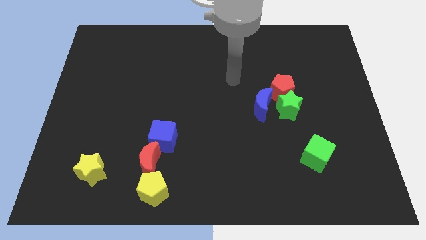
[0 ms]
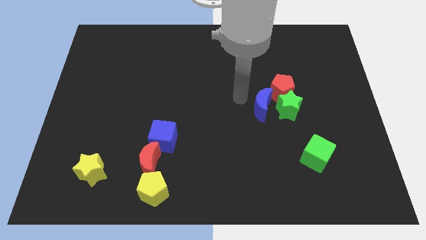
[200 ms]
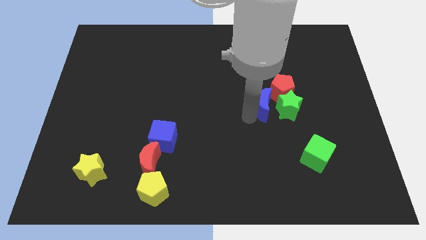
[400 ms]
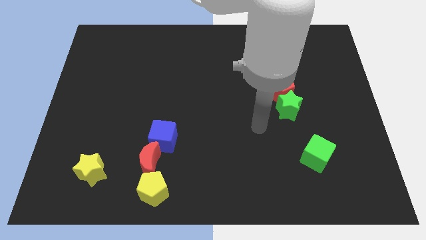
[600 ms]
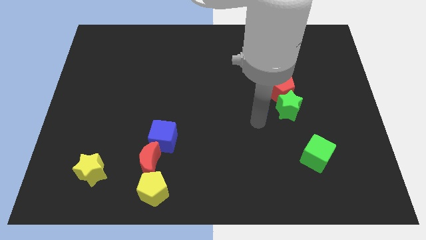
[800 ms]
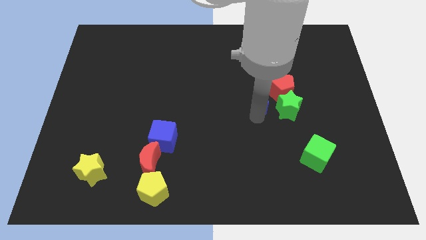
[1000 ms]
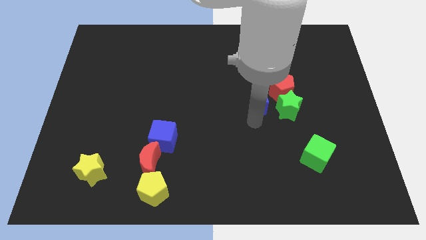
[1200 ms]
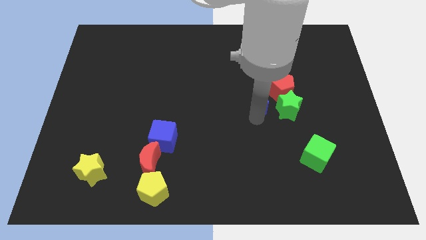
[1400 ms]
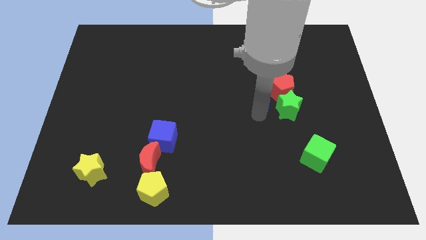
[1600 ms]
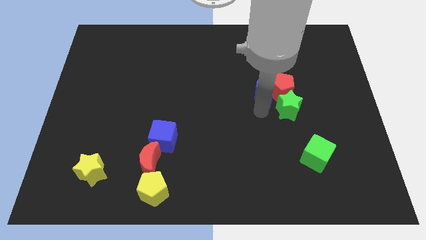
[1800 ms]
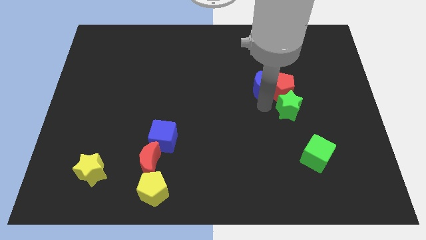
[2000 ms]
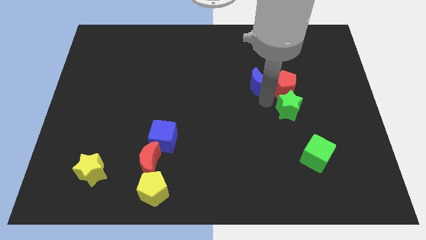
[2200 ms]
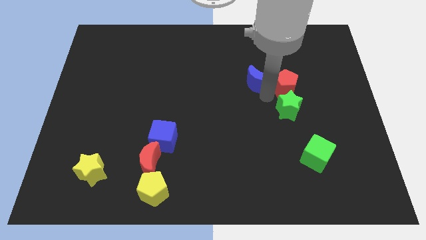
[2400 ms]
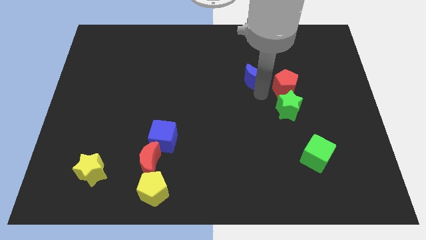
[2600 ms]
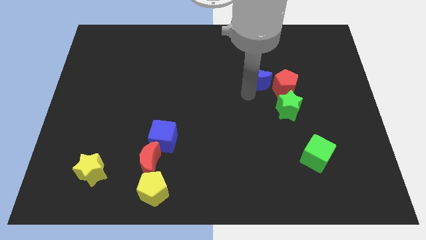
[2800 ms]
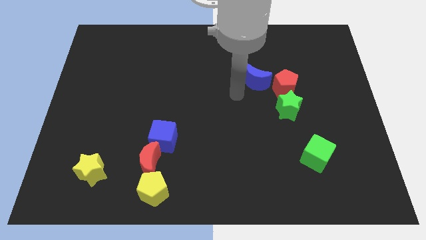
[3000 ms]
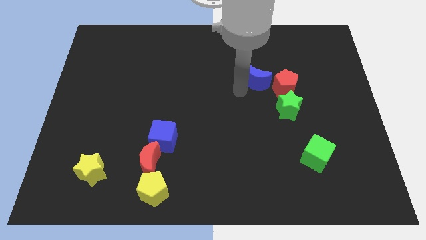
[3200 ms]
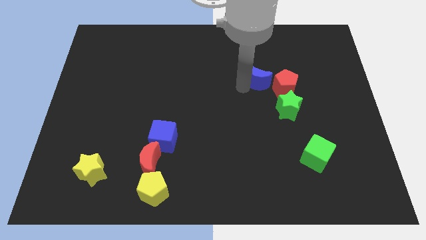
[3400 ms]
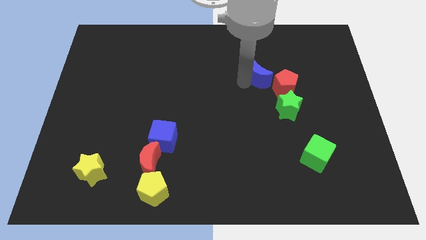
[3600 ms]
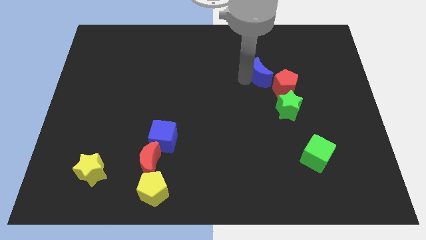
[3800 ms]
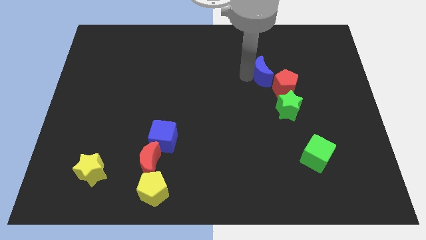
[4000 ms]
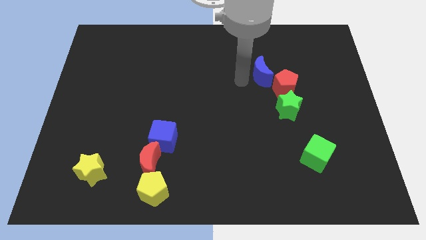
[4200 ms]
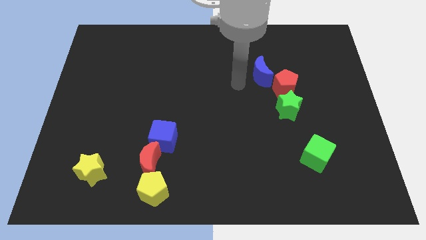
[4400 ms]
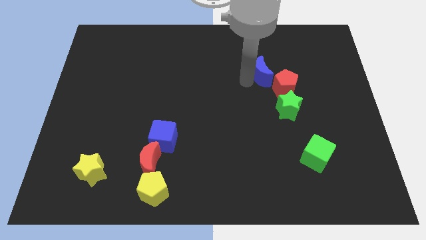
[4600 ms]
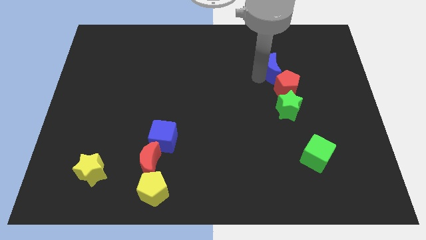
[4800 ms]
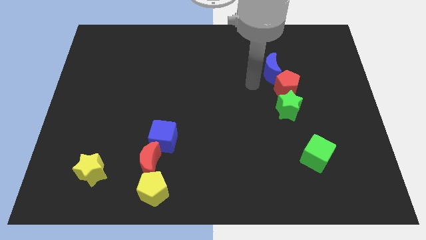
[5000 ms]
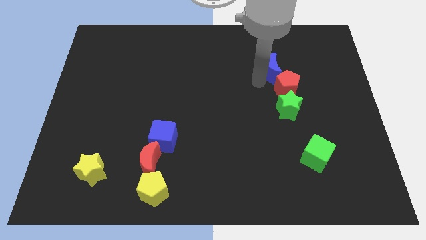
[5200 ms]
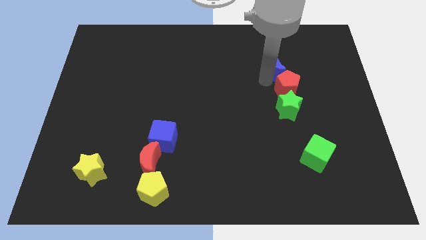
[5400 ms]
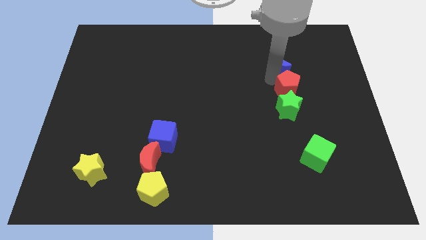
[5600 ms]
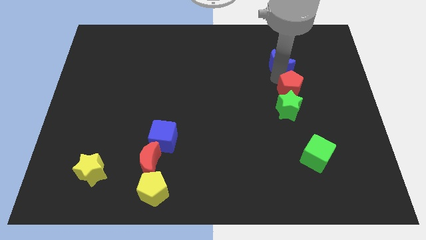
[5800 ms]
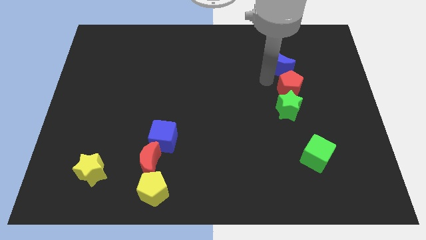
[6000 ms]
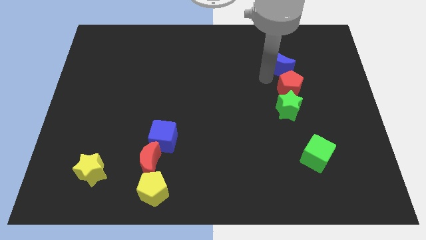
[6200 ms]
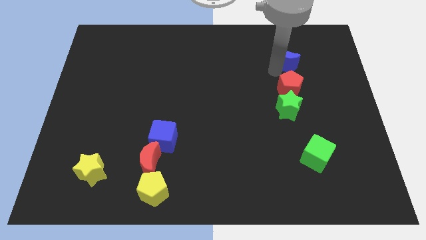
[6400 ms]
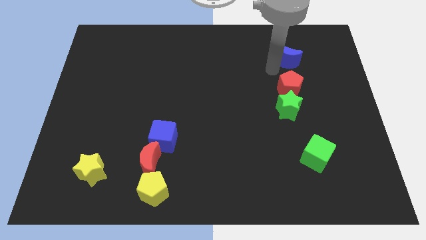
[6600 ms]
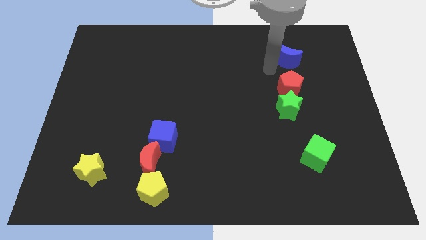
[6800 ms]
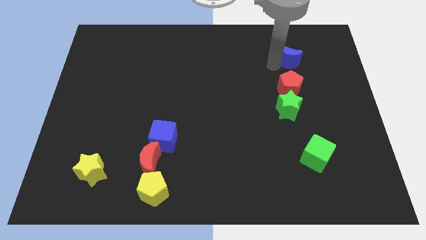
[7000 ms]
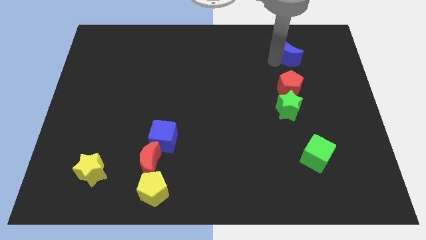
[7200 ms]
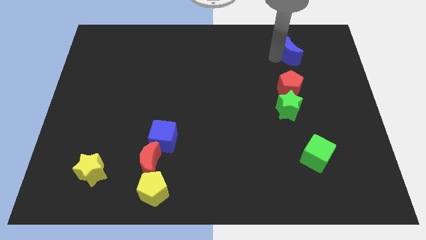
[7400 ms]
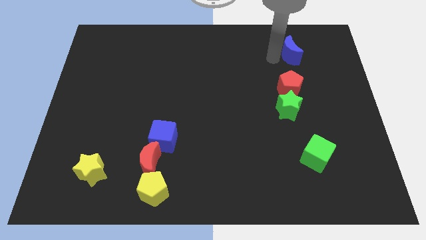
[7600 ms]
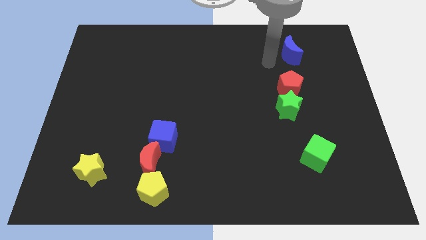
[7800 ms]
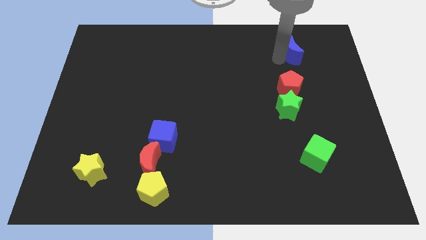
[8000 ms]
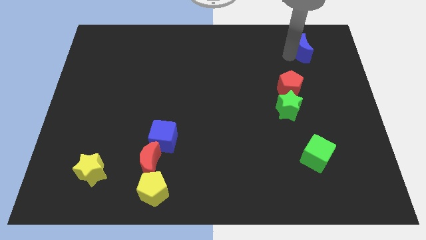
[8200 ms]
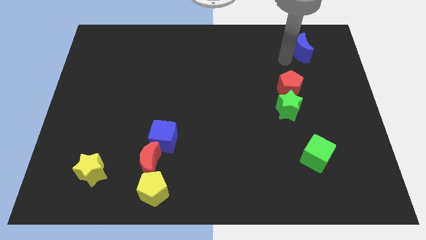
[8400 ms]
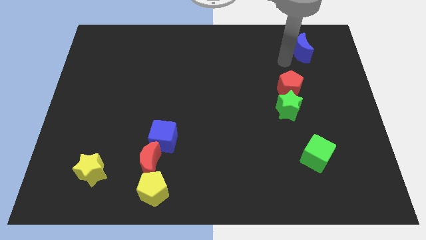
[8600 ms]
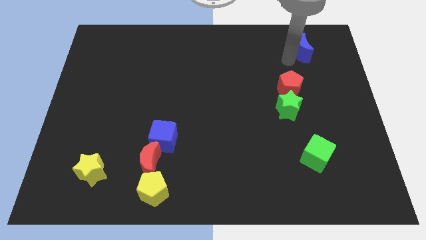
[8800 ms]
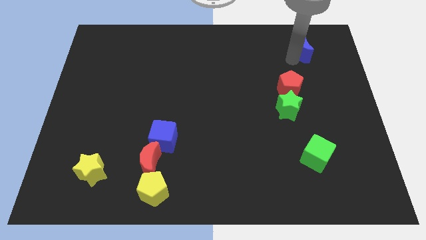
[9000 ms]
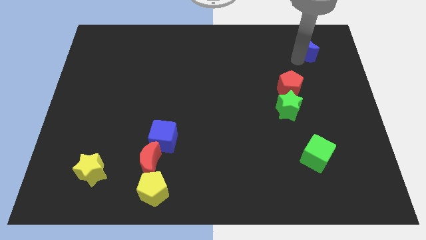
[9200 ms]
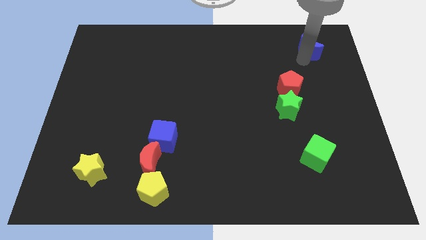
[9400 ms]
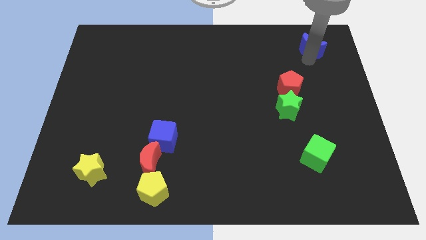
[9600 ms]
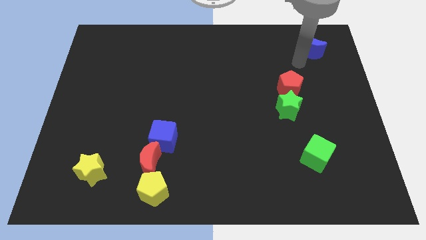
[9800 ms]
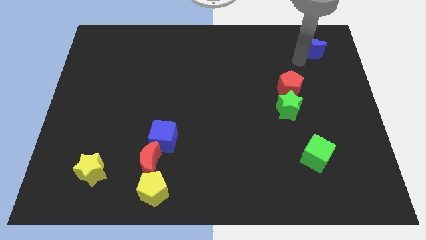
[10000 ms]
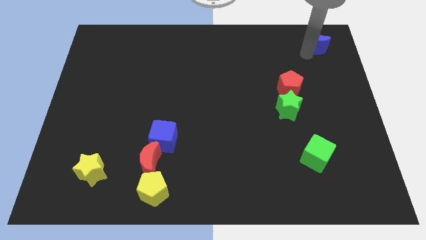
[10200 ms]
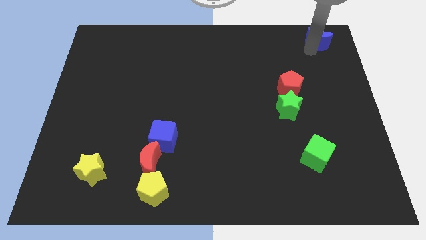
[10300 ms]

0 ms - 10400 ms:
move the blue moon to the top right of the board

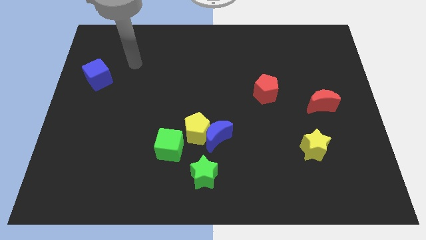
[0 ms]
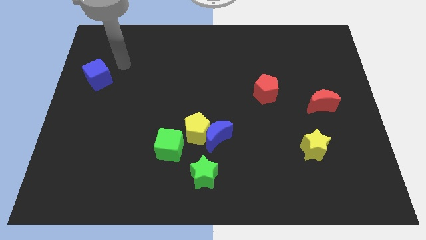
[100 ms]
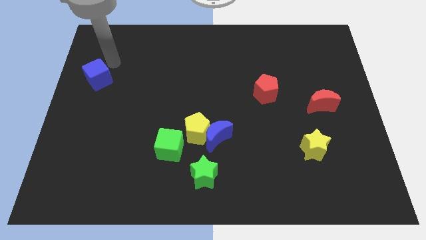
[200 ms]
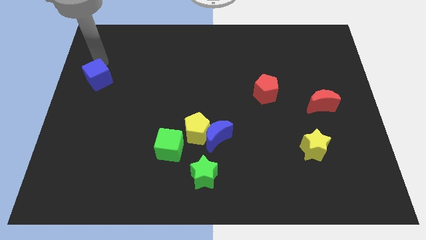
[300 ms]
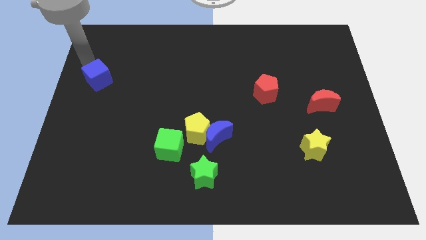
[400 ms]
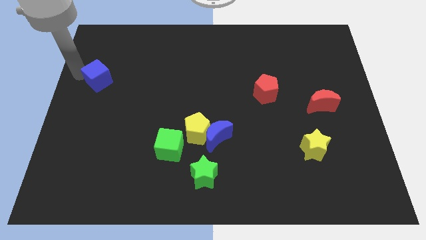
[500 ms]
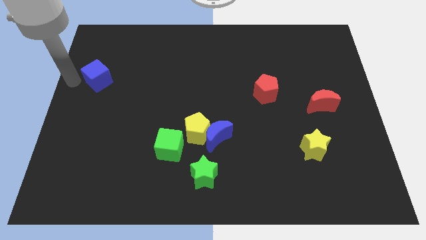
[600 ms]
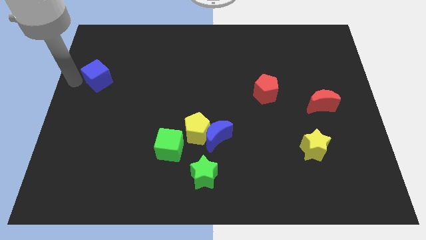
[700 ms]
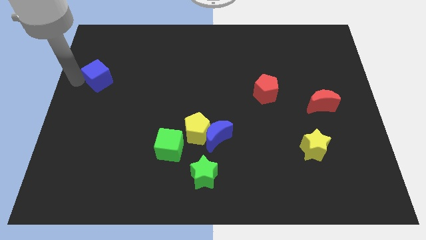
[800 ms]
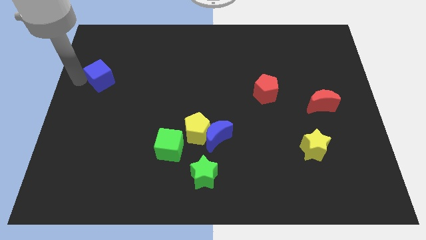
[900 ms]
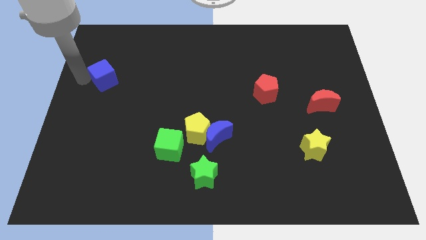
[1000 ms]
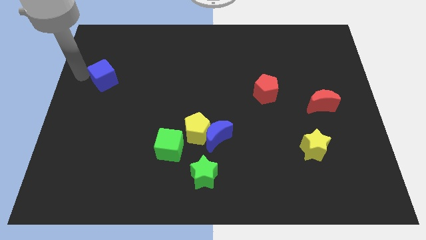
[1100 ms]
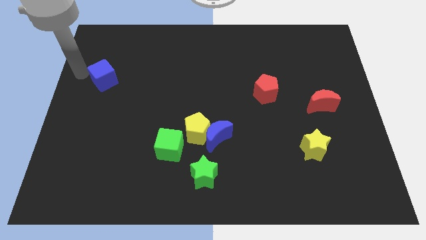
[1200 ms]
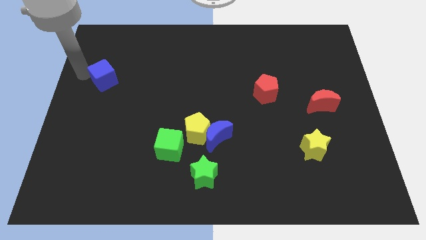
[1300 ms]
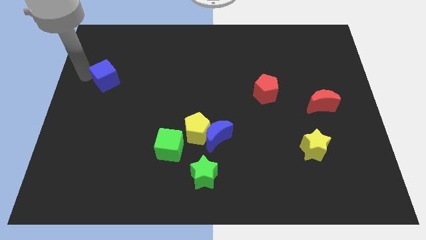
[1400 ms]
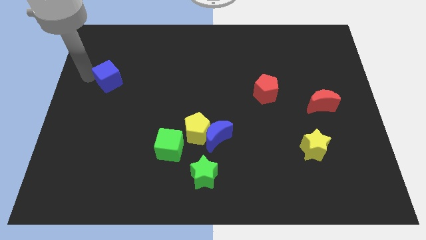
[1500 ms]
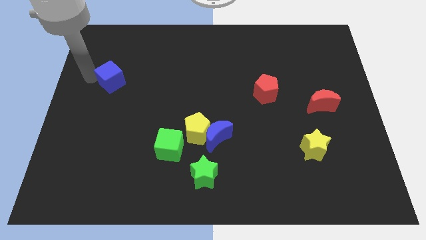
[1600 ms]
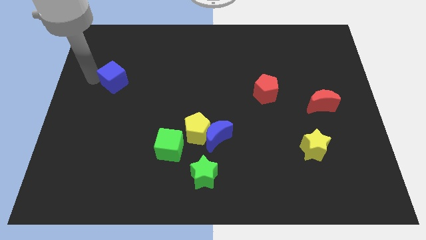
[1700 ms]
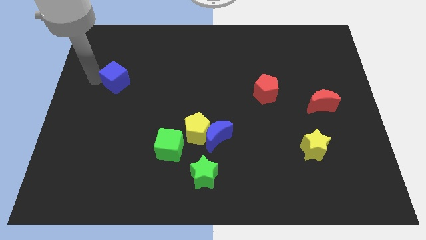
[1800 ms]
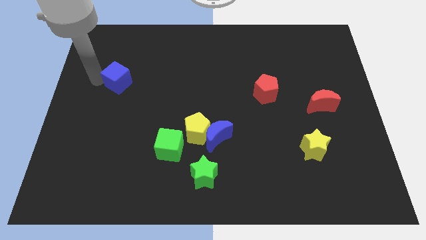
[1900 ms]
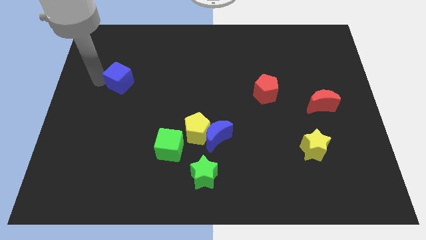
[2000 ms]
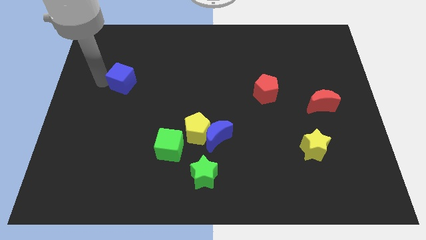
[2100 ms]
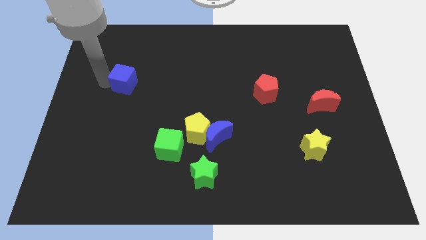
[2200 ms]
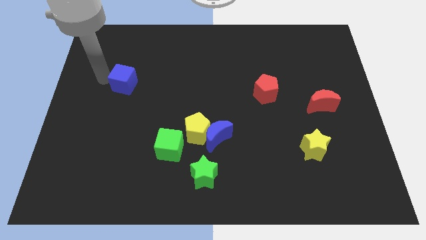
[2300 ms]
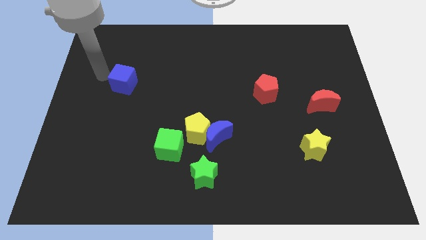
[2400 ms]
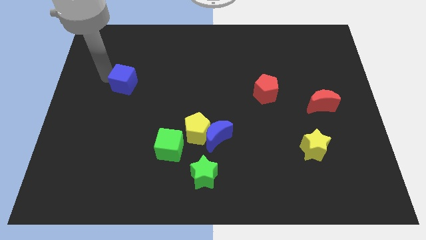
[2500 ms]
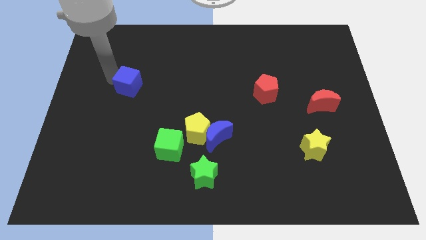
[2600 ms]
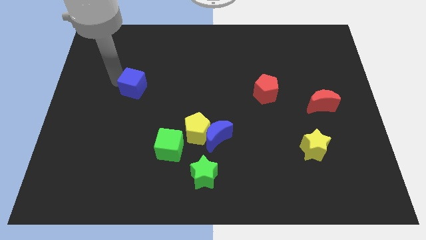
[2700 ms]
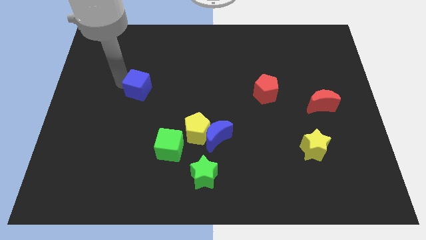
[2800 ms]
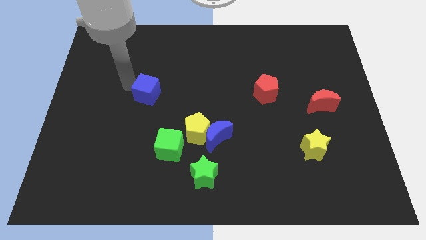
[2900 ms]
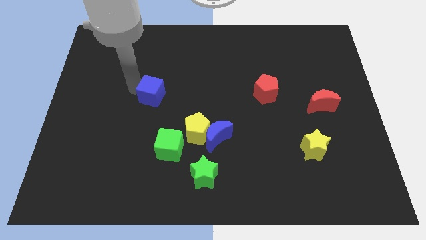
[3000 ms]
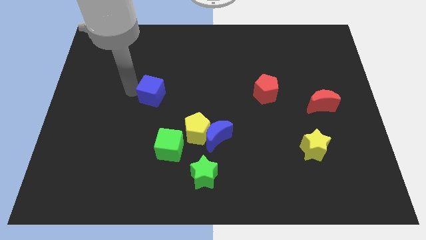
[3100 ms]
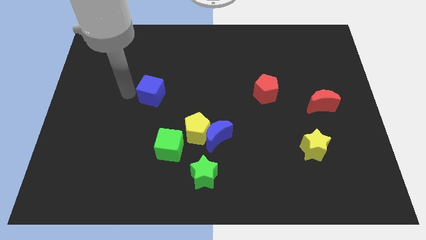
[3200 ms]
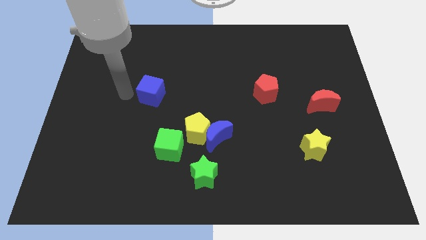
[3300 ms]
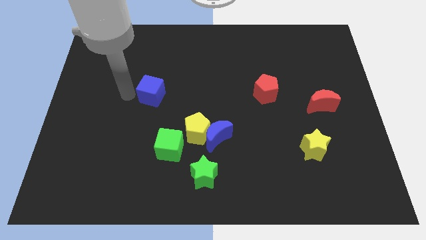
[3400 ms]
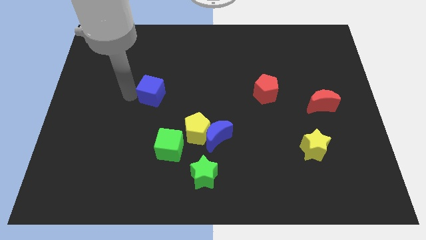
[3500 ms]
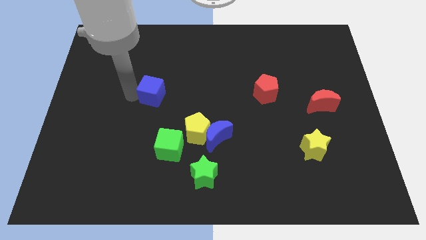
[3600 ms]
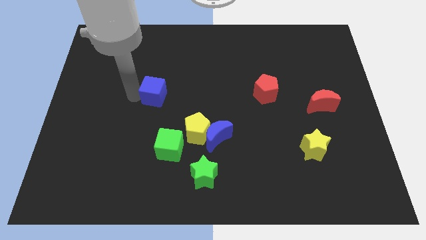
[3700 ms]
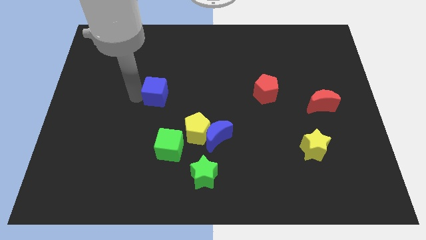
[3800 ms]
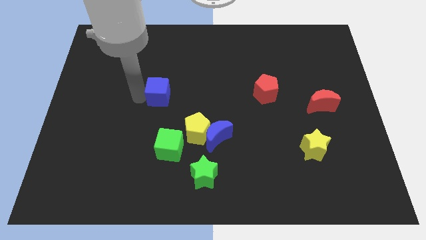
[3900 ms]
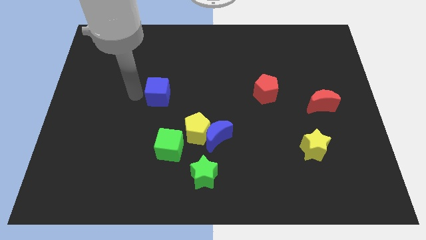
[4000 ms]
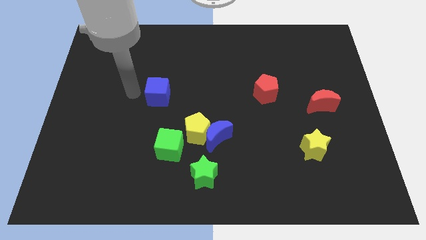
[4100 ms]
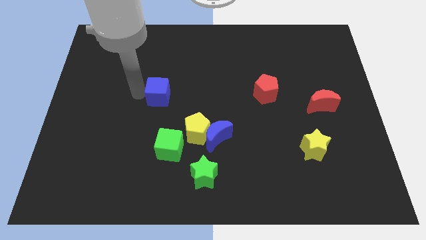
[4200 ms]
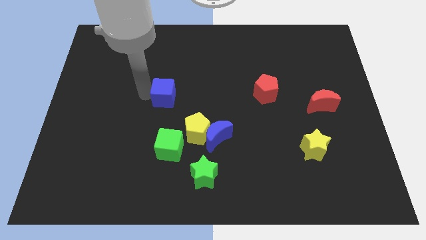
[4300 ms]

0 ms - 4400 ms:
put the blue cube to the middle of the board
